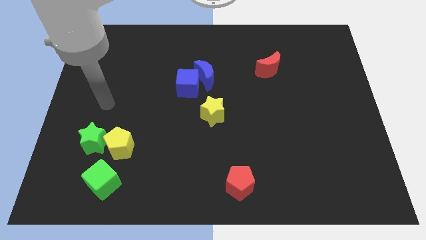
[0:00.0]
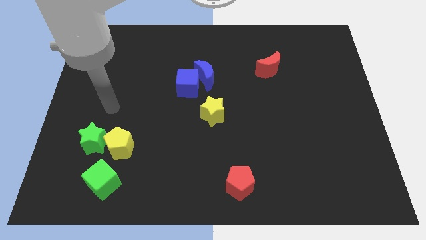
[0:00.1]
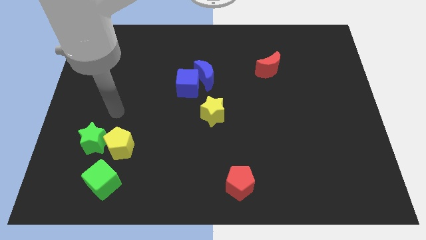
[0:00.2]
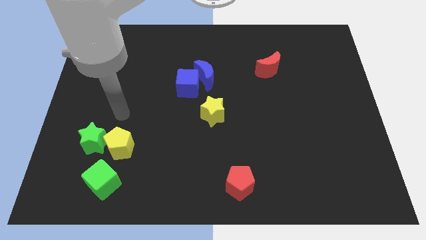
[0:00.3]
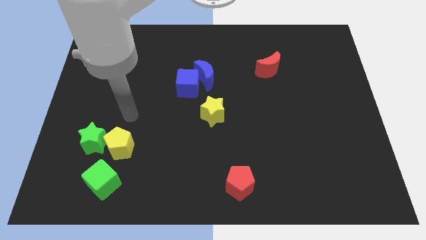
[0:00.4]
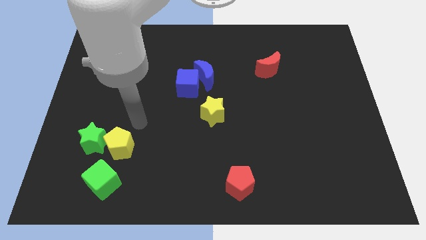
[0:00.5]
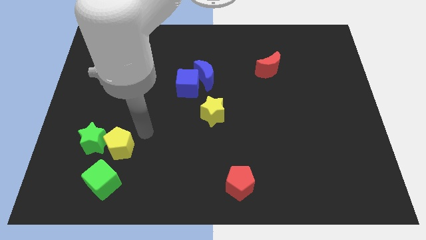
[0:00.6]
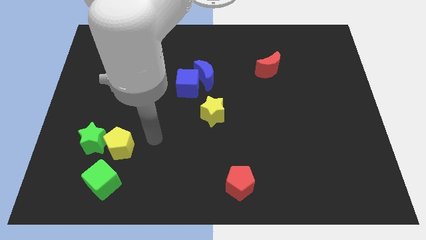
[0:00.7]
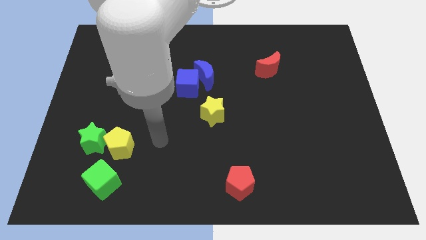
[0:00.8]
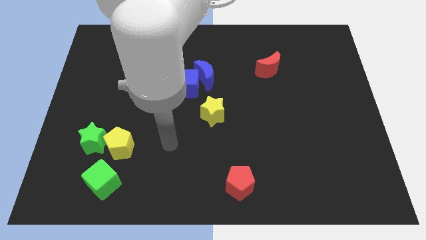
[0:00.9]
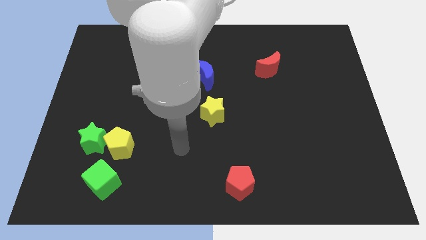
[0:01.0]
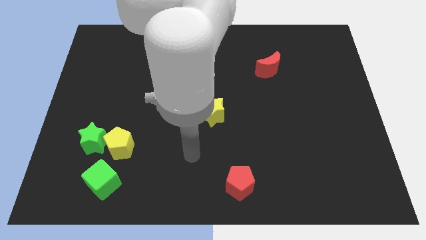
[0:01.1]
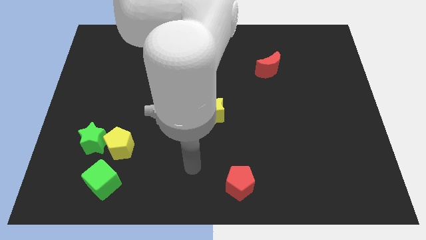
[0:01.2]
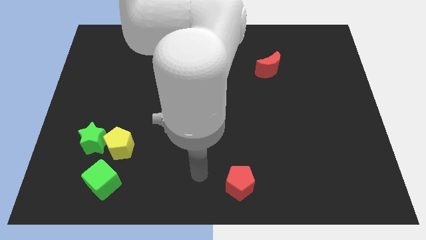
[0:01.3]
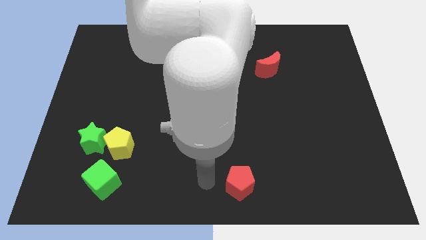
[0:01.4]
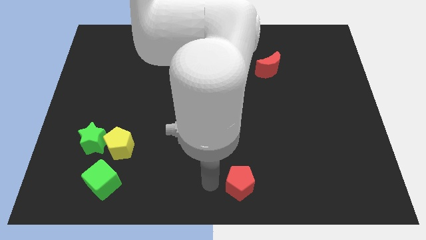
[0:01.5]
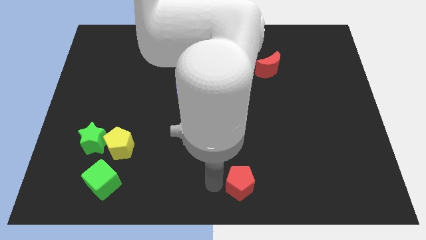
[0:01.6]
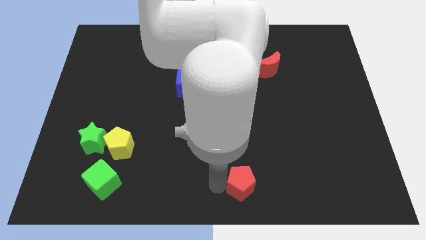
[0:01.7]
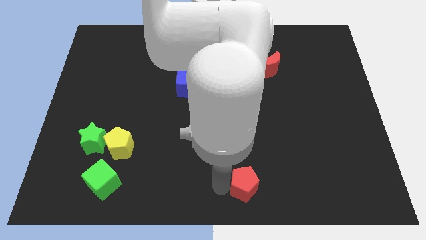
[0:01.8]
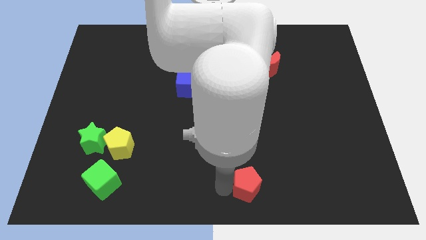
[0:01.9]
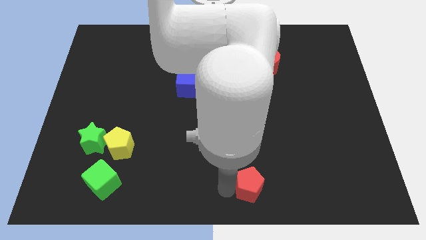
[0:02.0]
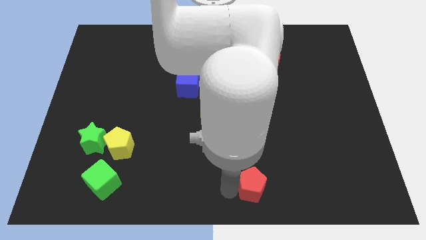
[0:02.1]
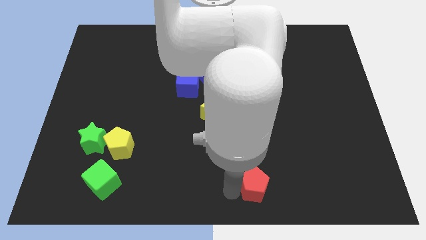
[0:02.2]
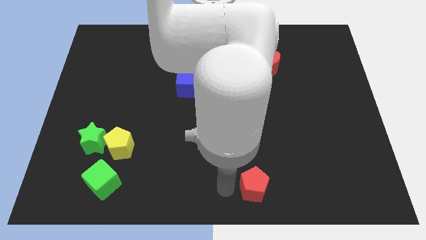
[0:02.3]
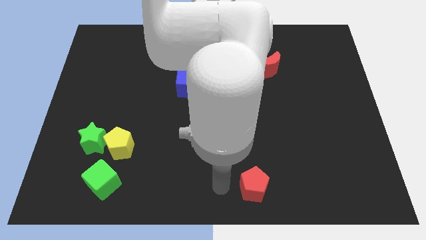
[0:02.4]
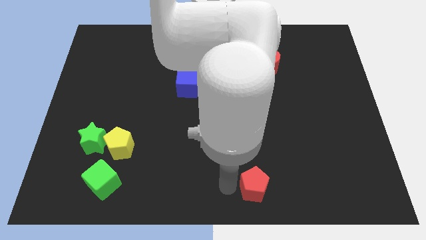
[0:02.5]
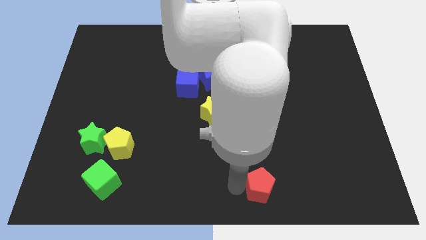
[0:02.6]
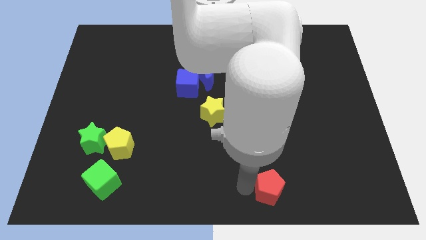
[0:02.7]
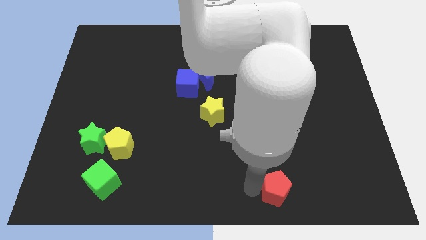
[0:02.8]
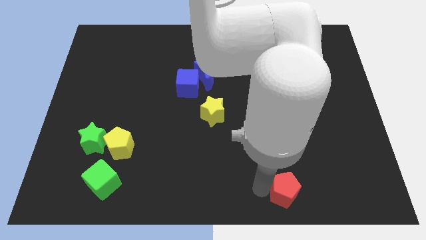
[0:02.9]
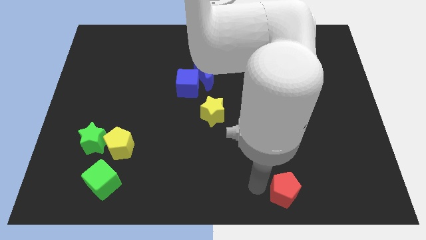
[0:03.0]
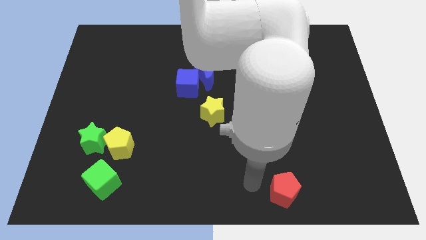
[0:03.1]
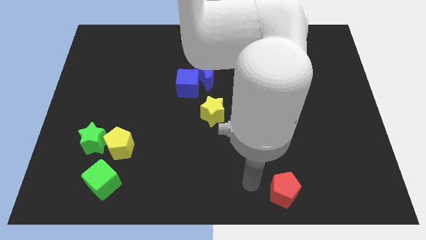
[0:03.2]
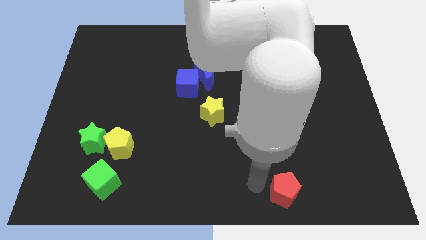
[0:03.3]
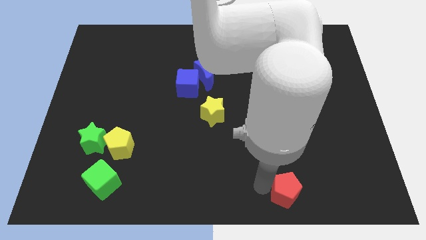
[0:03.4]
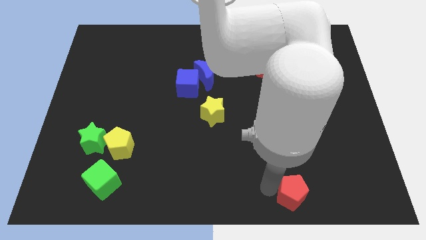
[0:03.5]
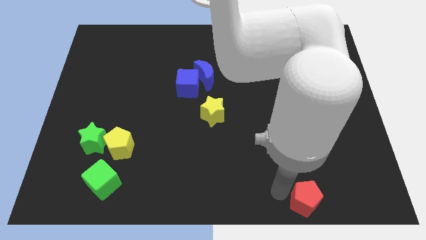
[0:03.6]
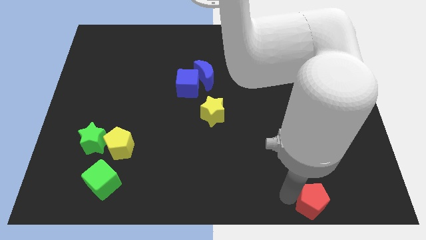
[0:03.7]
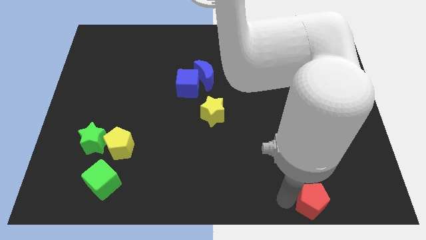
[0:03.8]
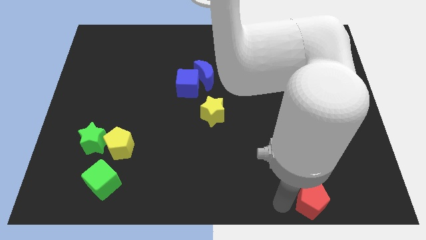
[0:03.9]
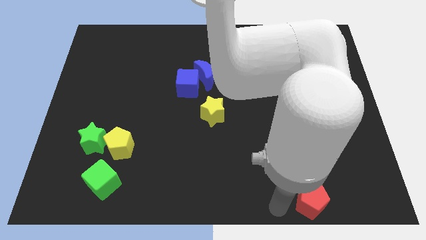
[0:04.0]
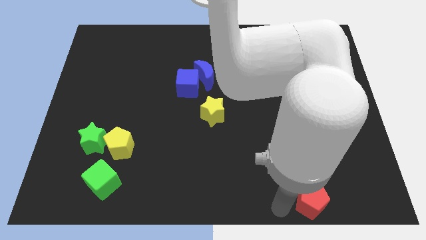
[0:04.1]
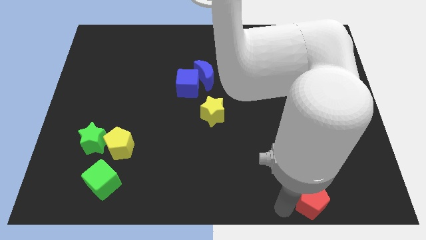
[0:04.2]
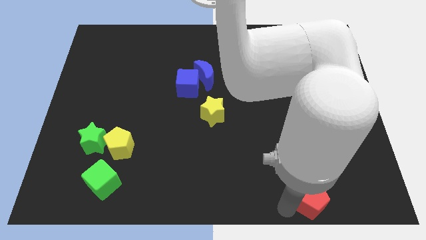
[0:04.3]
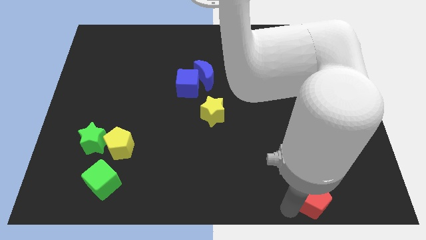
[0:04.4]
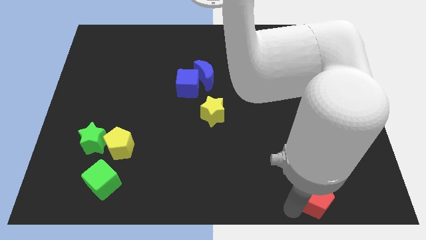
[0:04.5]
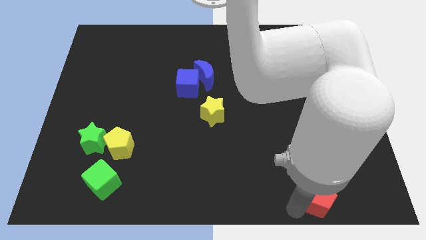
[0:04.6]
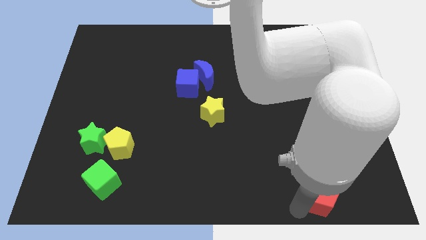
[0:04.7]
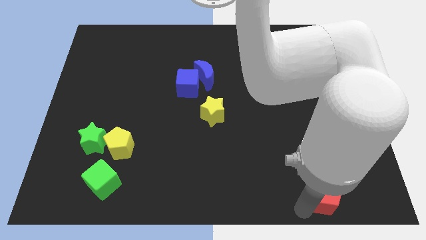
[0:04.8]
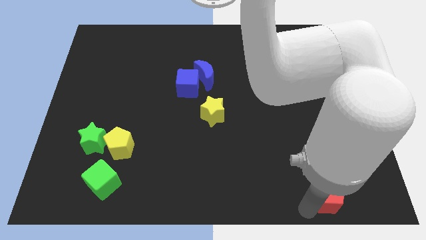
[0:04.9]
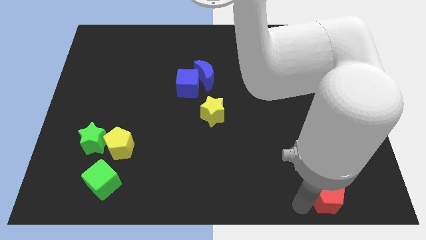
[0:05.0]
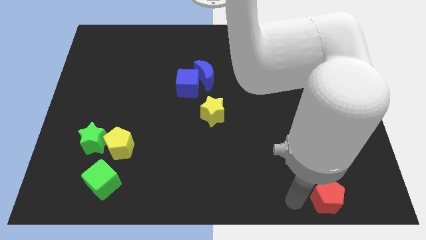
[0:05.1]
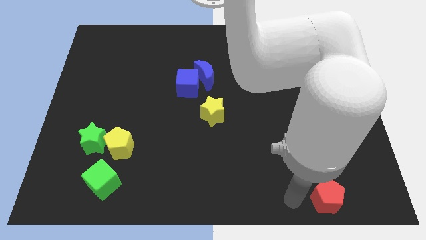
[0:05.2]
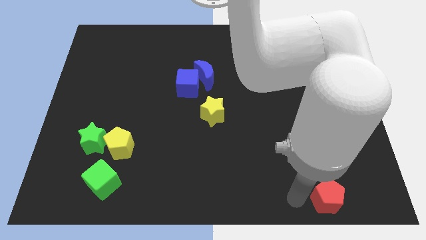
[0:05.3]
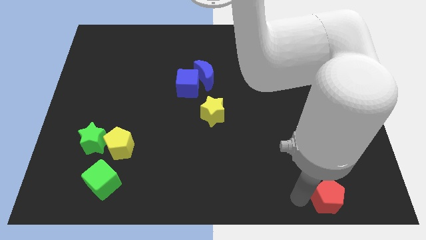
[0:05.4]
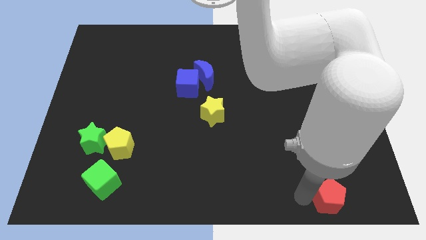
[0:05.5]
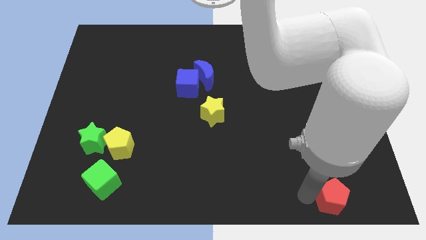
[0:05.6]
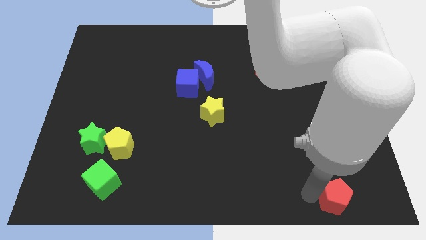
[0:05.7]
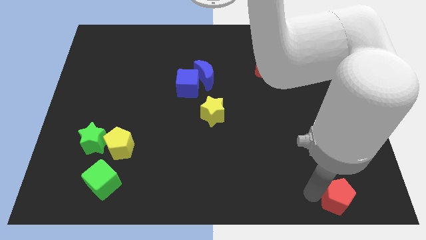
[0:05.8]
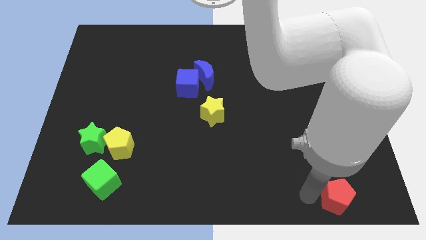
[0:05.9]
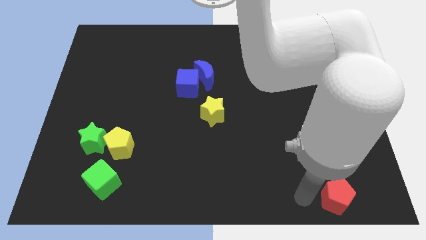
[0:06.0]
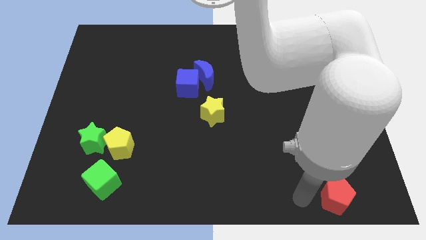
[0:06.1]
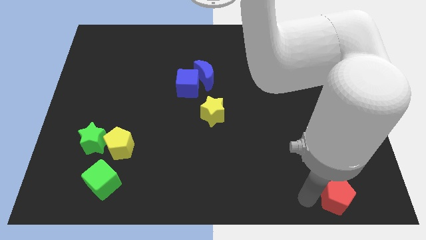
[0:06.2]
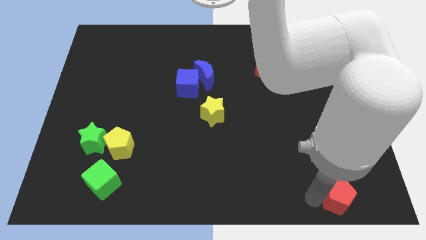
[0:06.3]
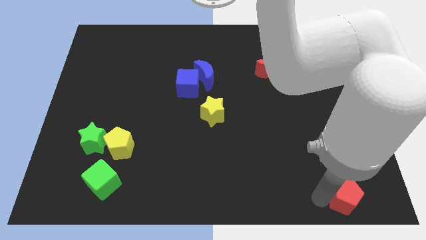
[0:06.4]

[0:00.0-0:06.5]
push the red pentagon to the bottom right

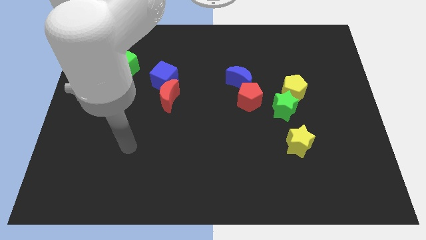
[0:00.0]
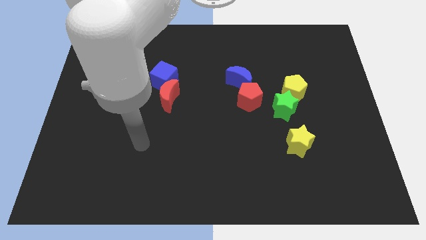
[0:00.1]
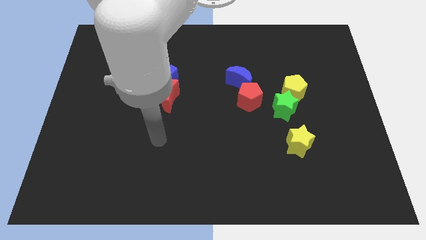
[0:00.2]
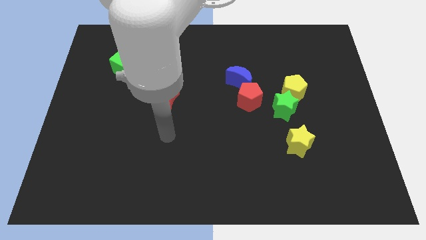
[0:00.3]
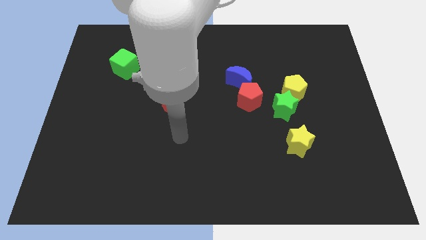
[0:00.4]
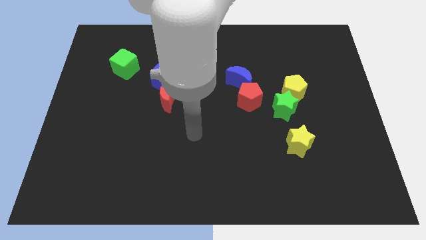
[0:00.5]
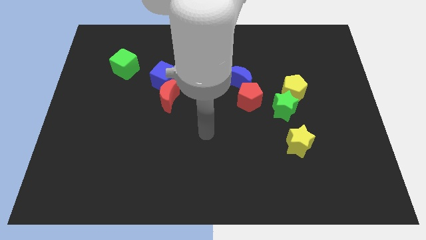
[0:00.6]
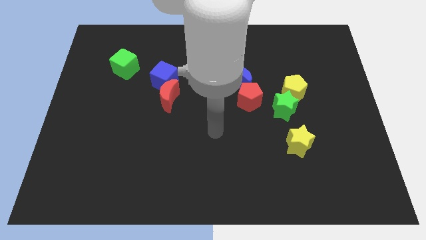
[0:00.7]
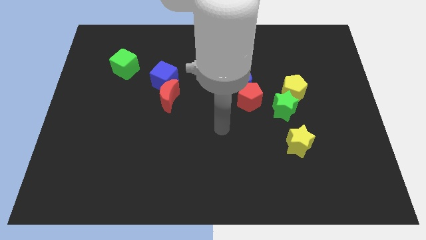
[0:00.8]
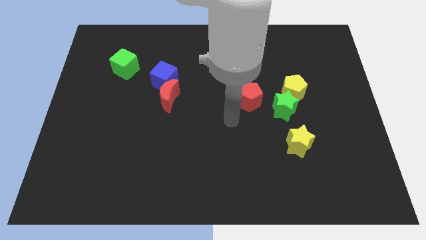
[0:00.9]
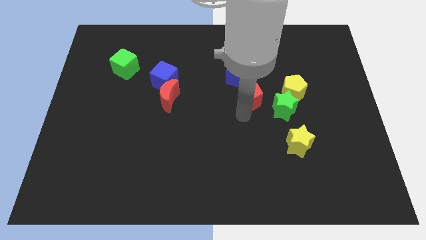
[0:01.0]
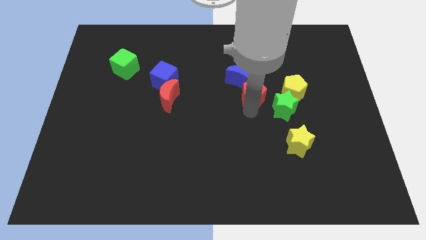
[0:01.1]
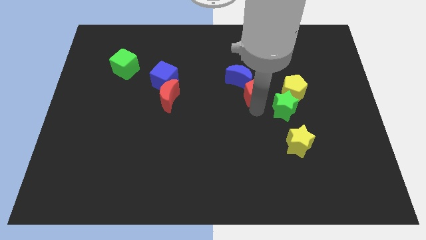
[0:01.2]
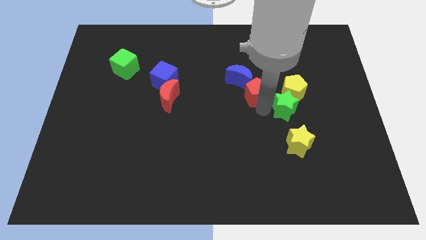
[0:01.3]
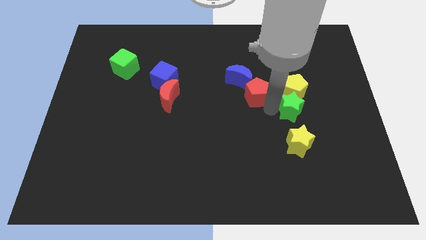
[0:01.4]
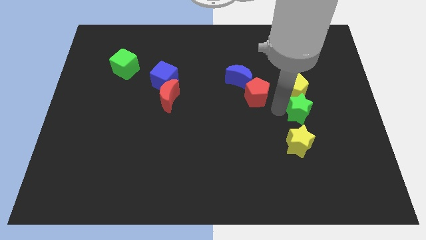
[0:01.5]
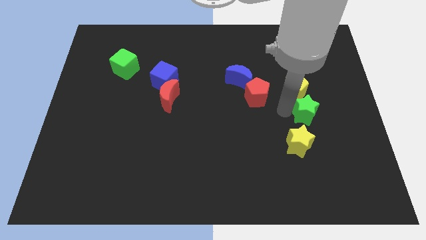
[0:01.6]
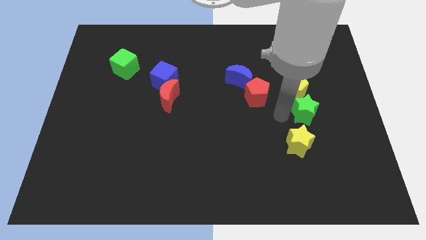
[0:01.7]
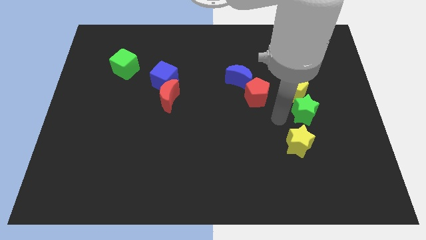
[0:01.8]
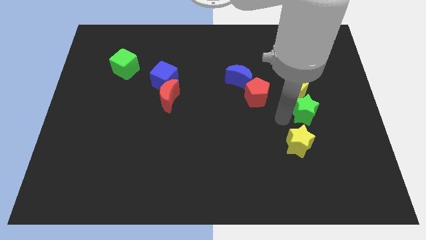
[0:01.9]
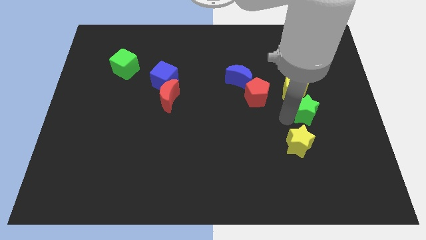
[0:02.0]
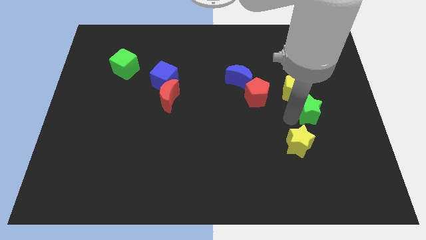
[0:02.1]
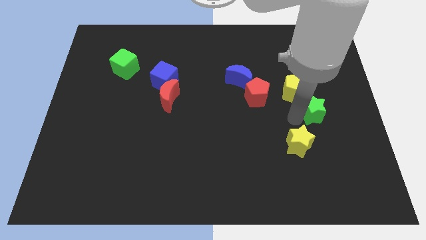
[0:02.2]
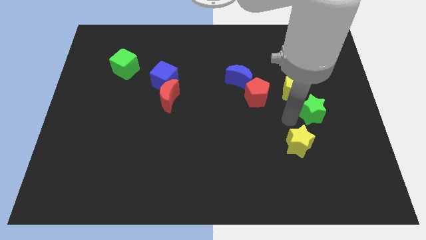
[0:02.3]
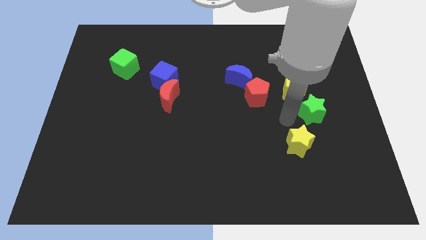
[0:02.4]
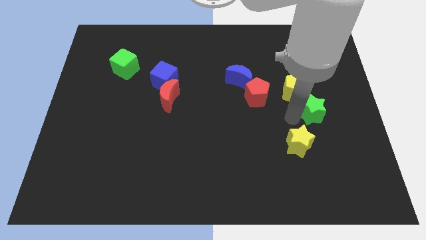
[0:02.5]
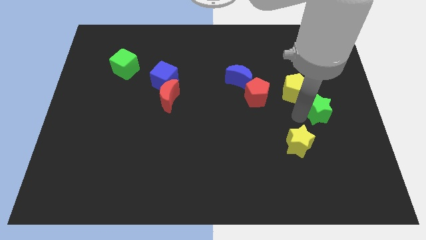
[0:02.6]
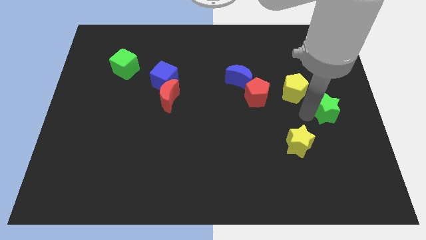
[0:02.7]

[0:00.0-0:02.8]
move the green star to the center right
